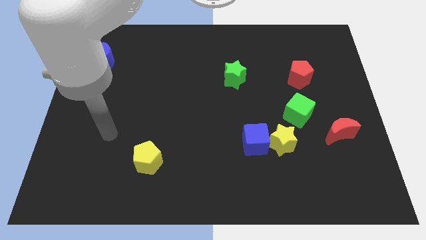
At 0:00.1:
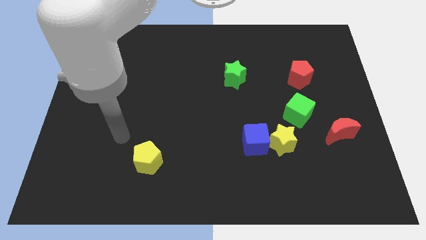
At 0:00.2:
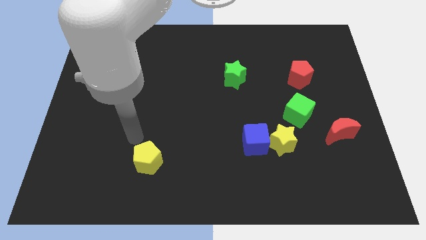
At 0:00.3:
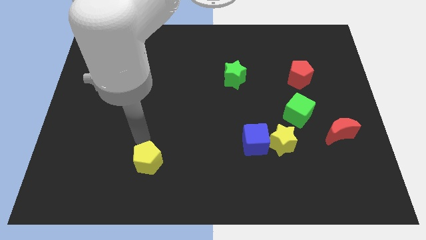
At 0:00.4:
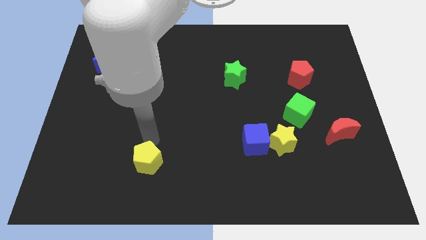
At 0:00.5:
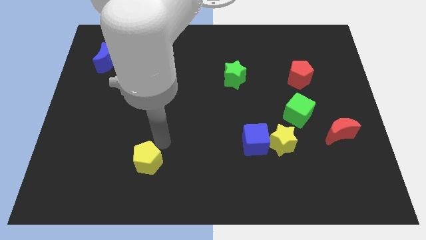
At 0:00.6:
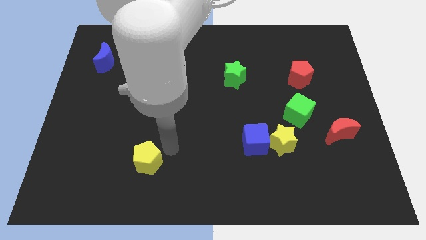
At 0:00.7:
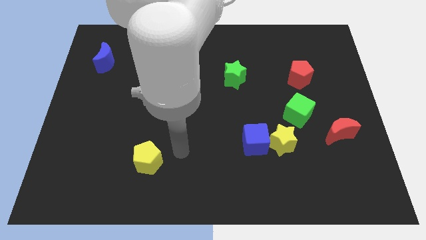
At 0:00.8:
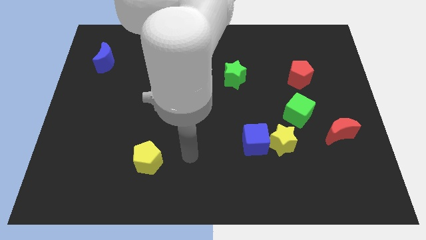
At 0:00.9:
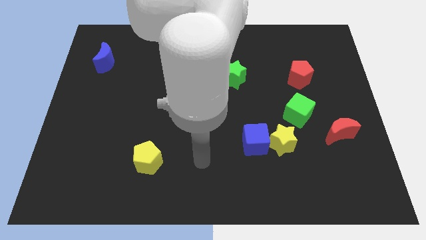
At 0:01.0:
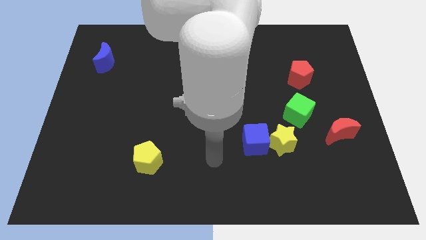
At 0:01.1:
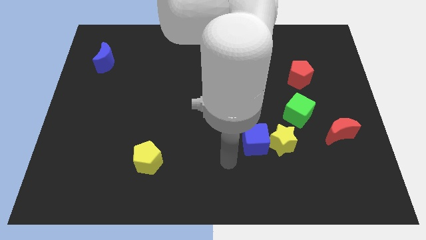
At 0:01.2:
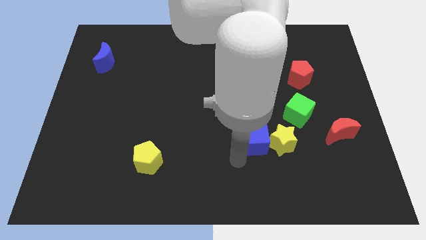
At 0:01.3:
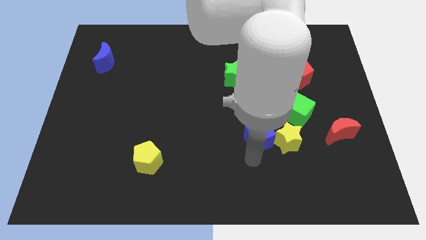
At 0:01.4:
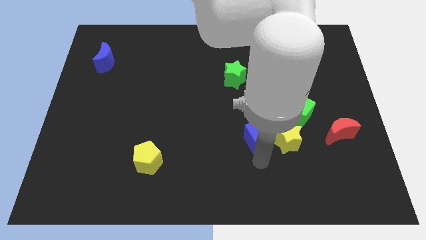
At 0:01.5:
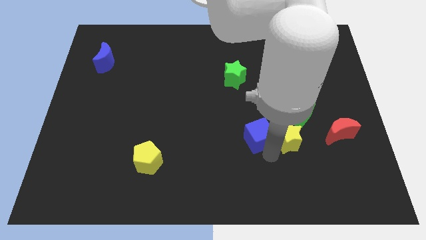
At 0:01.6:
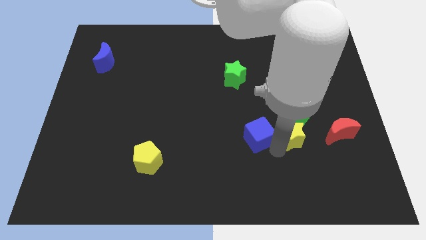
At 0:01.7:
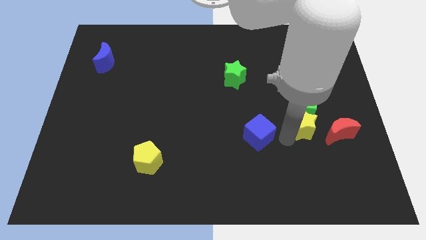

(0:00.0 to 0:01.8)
pull the blue cube apart from the yellow star

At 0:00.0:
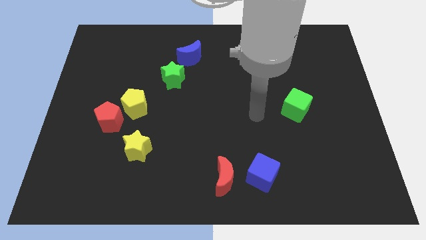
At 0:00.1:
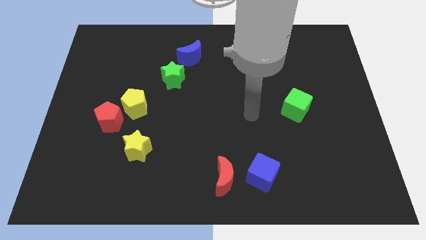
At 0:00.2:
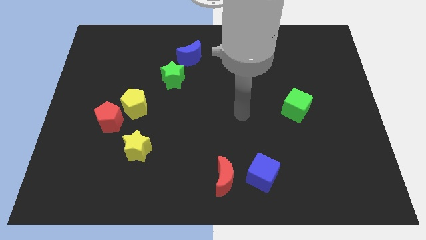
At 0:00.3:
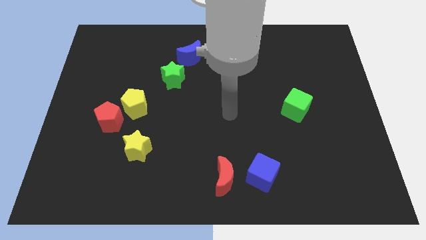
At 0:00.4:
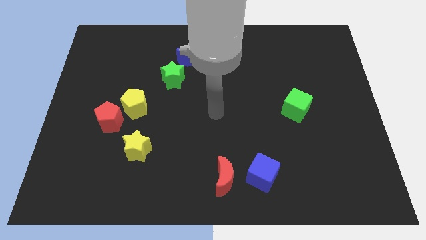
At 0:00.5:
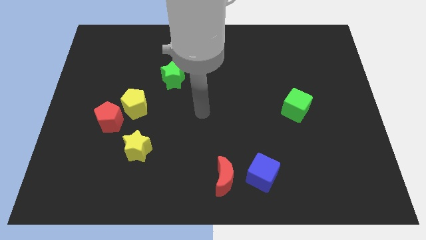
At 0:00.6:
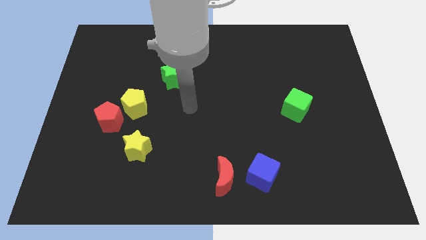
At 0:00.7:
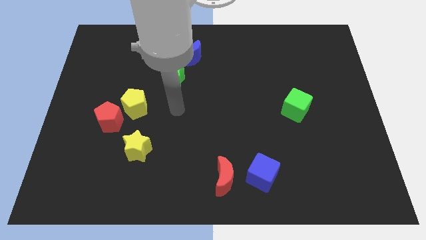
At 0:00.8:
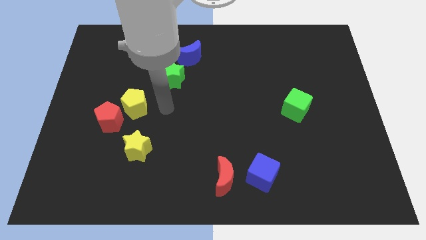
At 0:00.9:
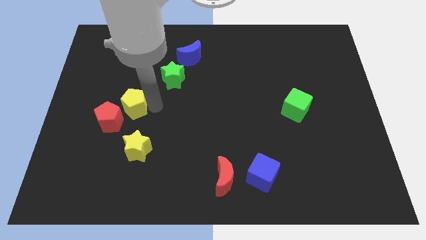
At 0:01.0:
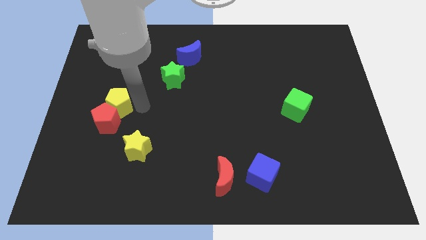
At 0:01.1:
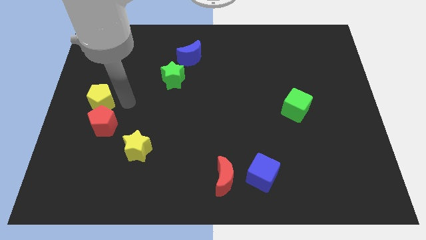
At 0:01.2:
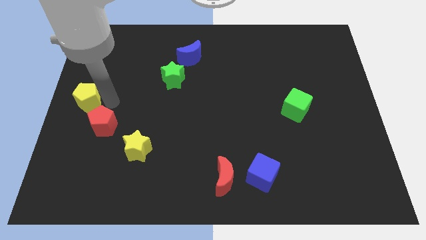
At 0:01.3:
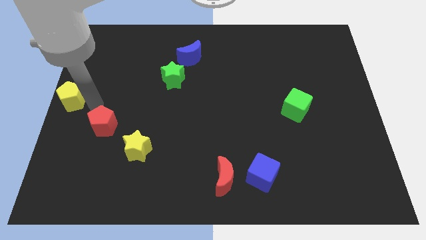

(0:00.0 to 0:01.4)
pull the red pentagon apart from the yellow pentagon

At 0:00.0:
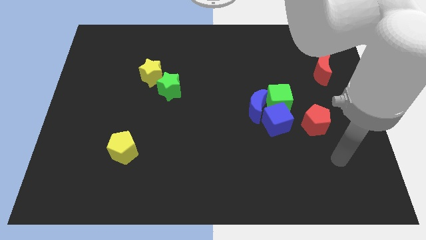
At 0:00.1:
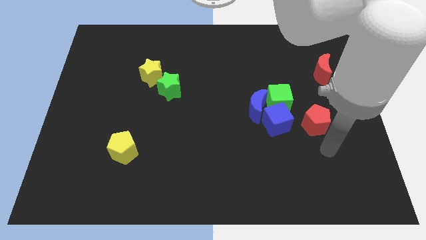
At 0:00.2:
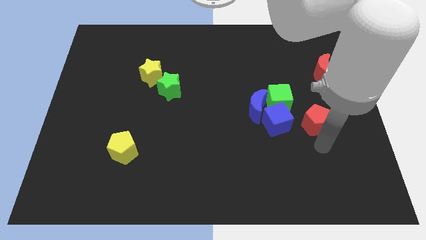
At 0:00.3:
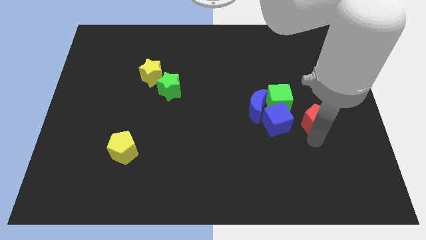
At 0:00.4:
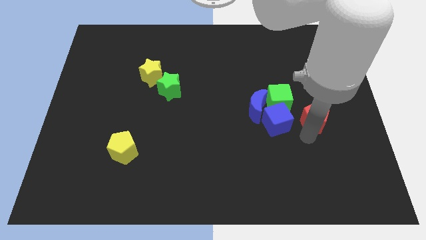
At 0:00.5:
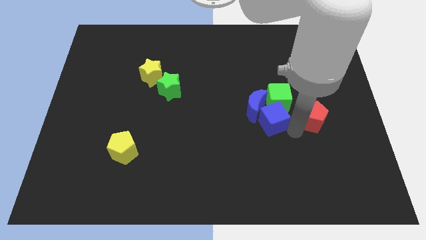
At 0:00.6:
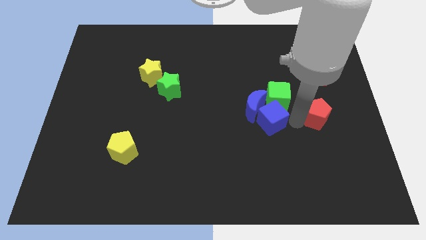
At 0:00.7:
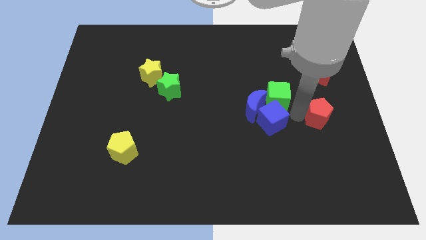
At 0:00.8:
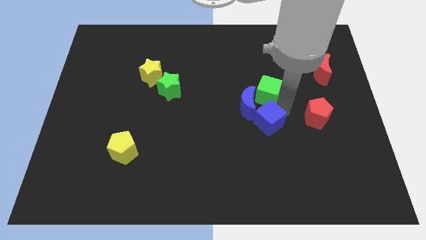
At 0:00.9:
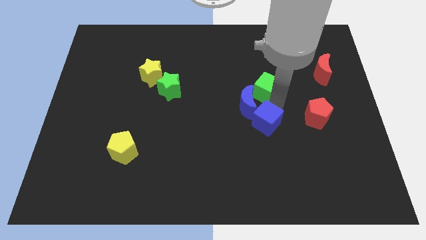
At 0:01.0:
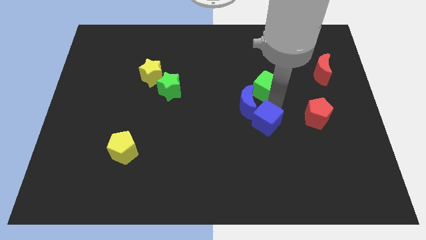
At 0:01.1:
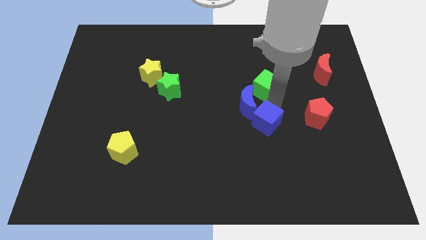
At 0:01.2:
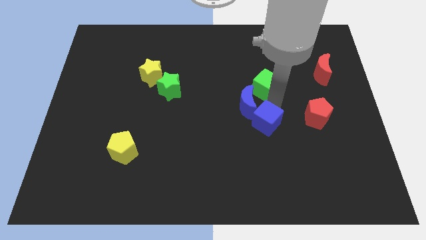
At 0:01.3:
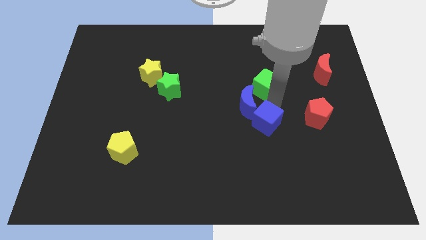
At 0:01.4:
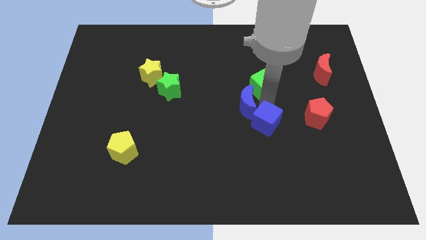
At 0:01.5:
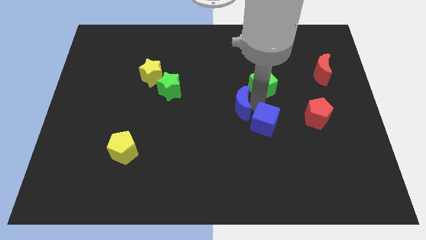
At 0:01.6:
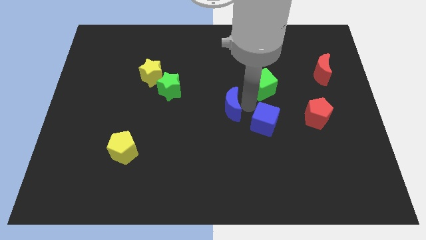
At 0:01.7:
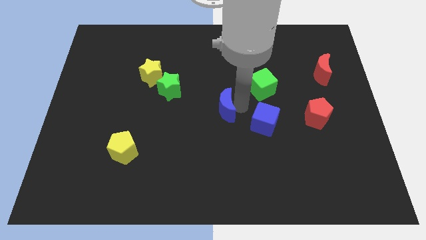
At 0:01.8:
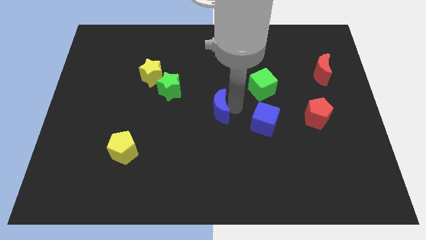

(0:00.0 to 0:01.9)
pull the blue moon apart from the green cube and blue cube

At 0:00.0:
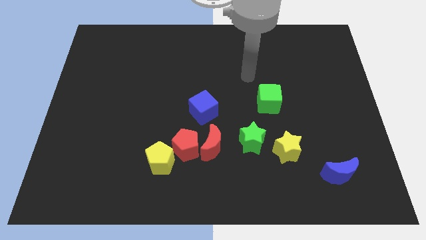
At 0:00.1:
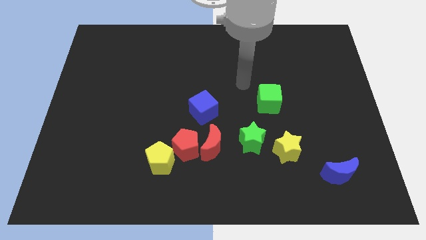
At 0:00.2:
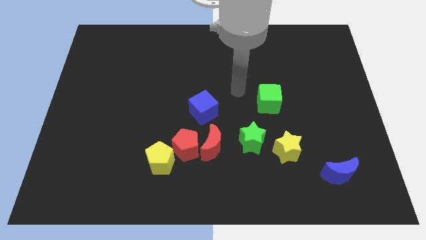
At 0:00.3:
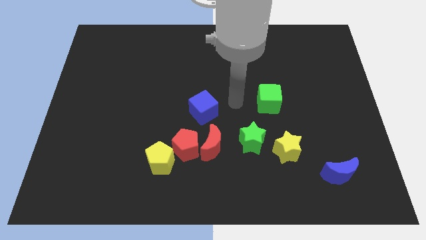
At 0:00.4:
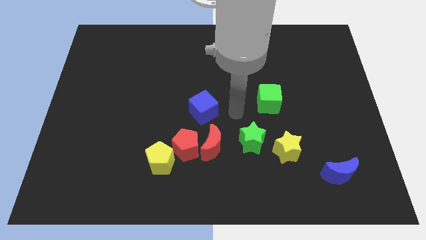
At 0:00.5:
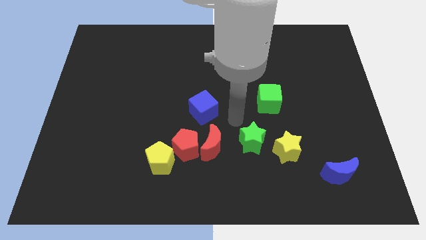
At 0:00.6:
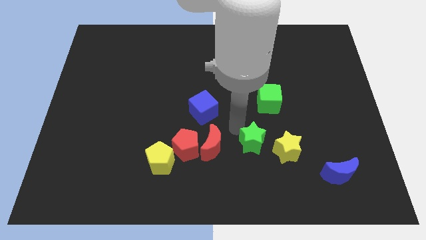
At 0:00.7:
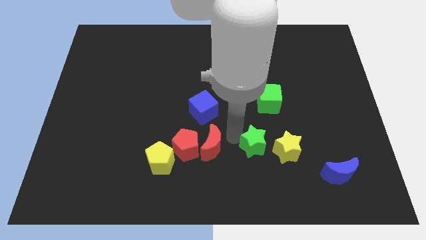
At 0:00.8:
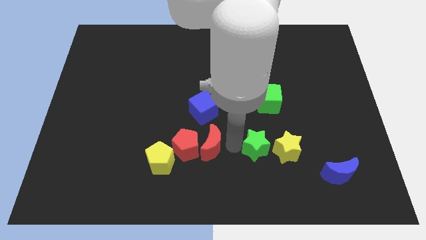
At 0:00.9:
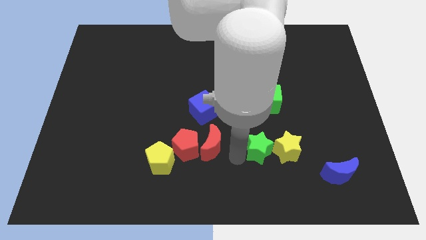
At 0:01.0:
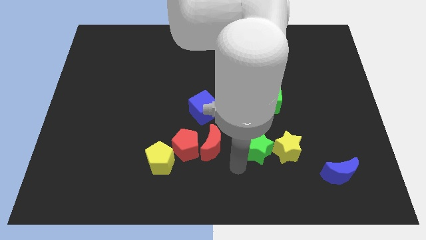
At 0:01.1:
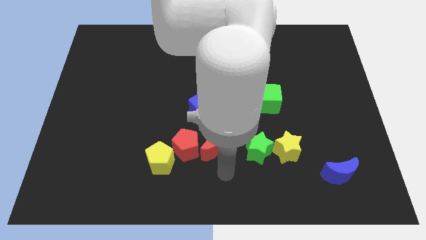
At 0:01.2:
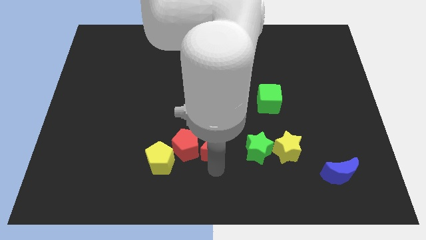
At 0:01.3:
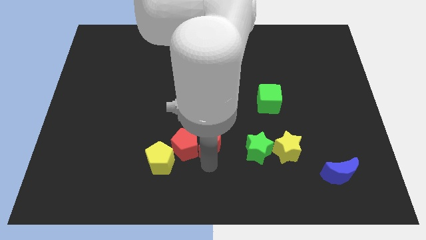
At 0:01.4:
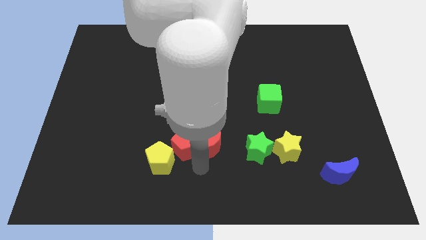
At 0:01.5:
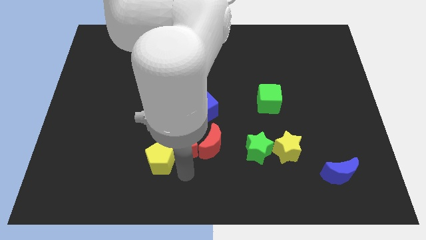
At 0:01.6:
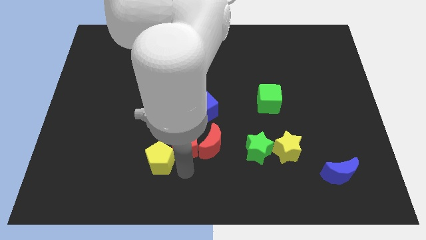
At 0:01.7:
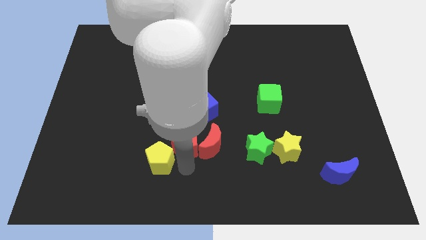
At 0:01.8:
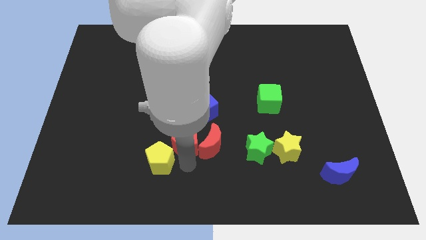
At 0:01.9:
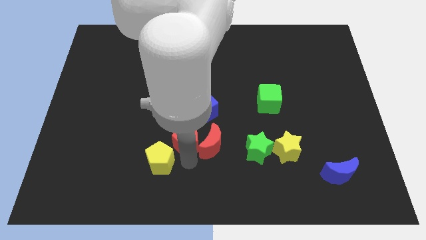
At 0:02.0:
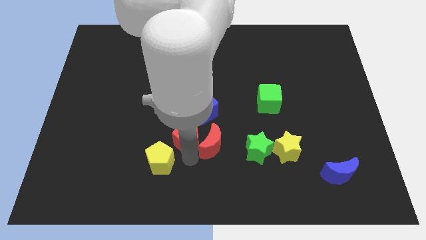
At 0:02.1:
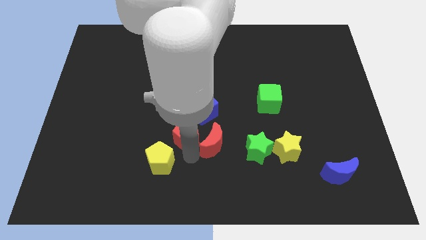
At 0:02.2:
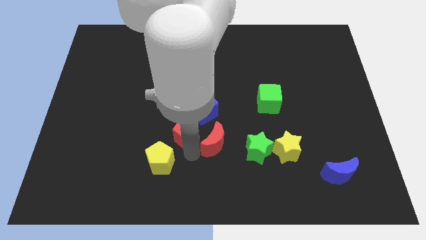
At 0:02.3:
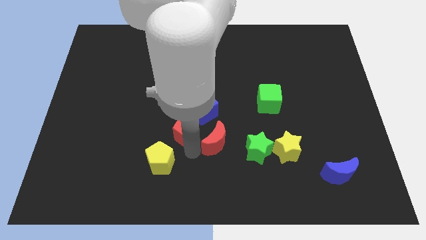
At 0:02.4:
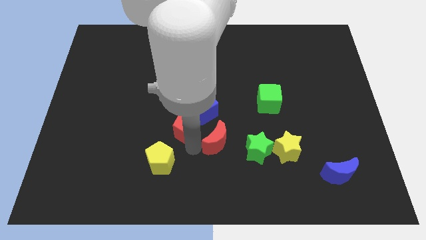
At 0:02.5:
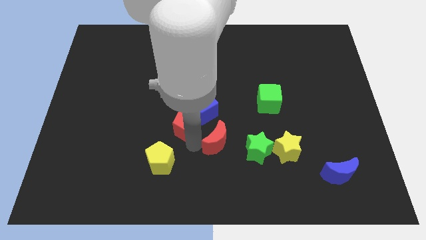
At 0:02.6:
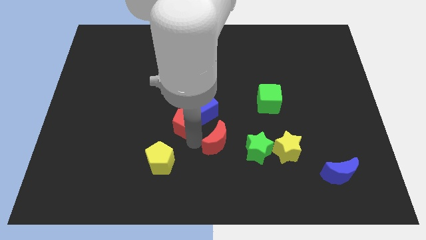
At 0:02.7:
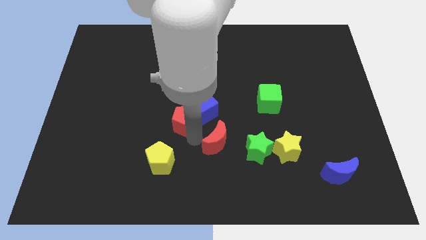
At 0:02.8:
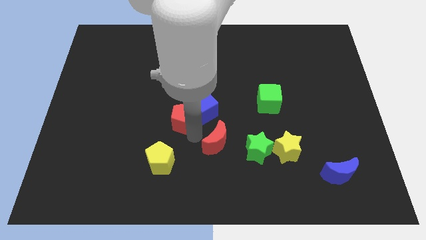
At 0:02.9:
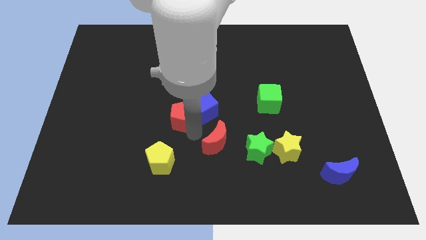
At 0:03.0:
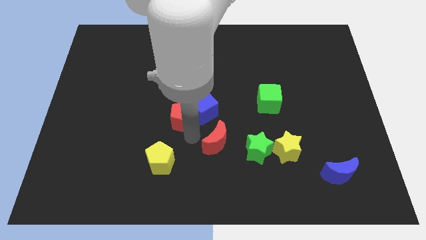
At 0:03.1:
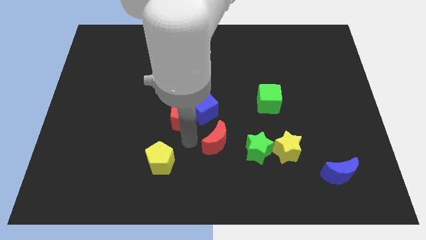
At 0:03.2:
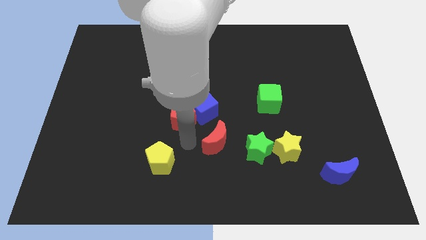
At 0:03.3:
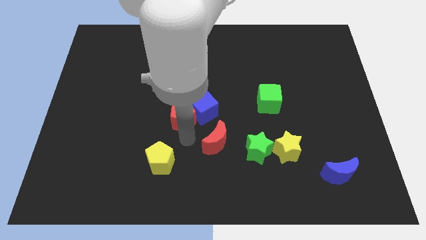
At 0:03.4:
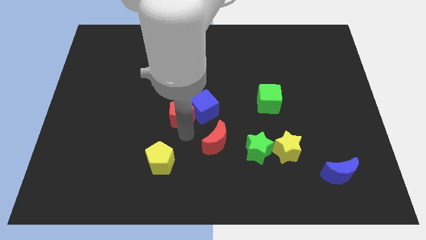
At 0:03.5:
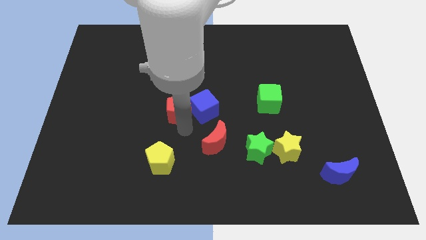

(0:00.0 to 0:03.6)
move the red pentagon away from the red moon and yellow pentagon

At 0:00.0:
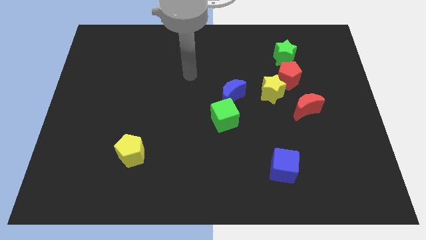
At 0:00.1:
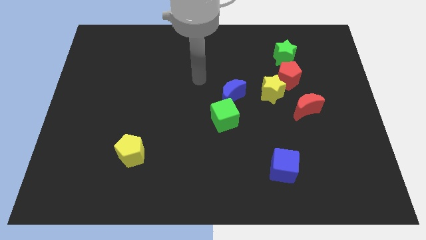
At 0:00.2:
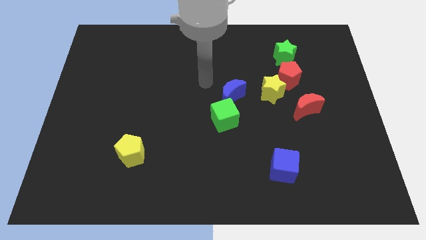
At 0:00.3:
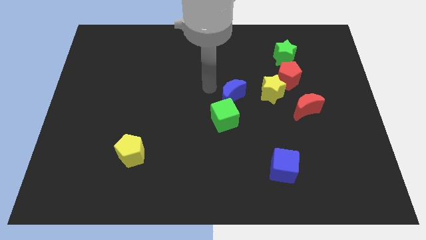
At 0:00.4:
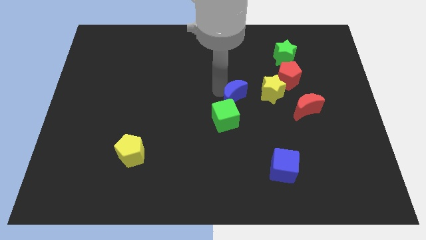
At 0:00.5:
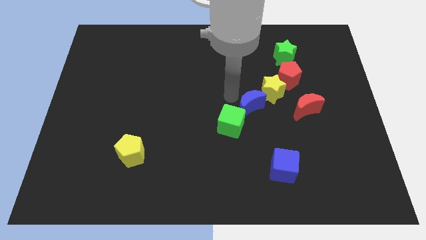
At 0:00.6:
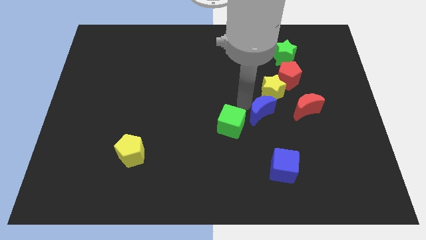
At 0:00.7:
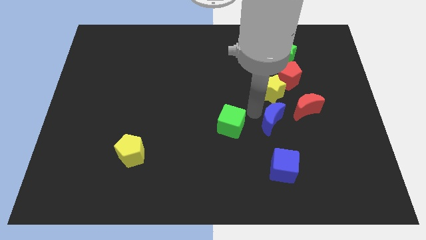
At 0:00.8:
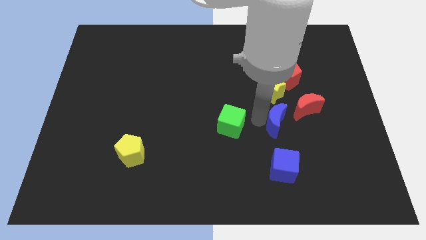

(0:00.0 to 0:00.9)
separate the green cube from the blue moon
